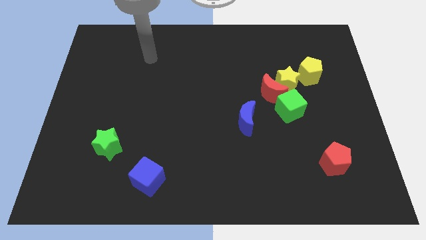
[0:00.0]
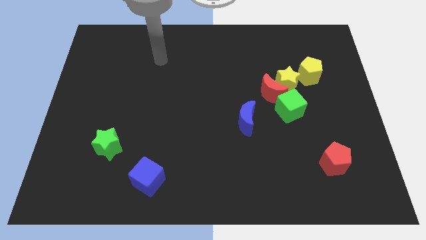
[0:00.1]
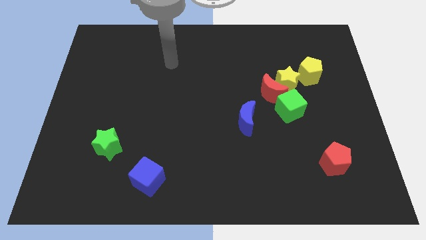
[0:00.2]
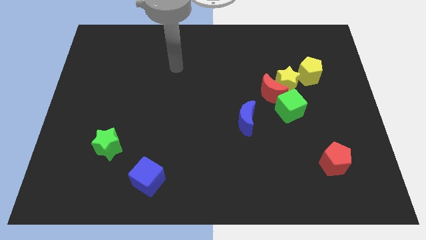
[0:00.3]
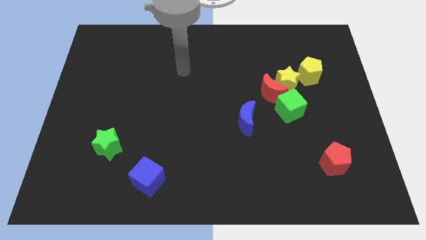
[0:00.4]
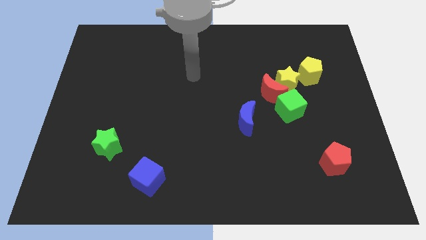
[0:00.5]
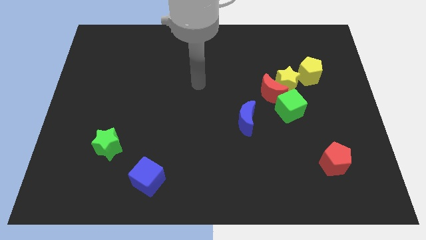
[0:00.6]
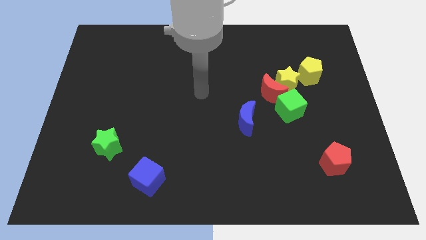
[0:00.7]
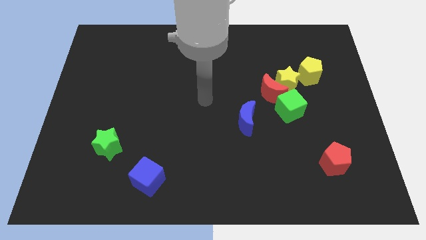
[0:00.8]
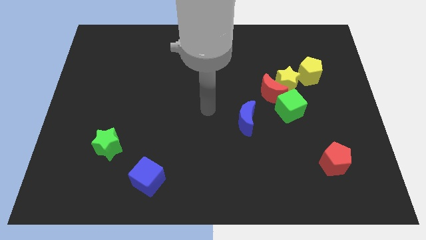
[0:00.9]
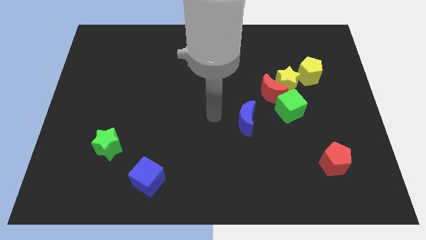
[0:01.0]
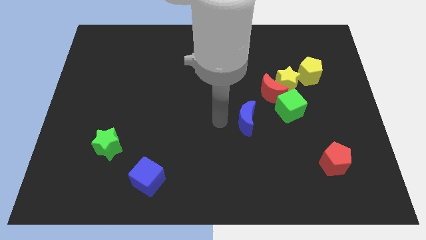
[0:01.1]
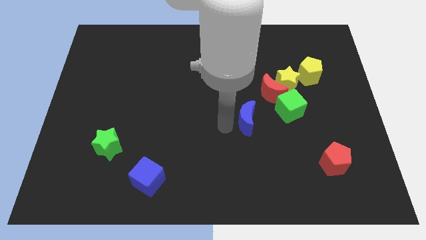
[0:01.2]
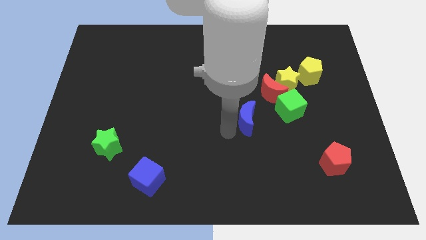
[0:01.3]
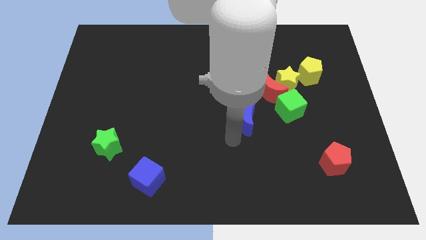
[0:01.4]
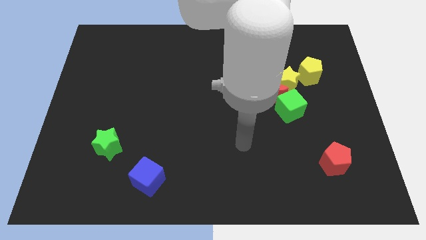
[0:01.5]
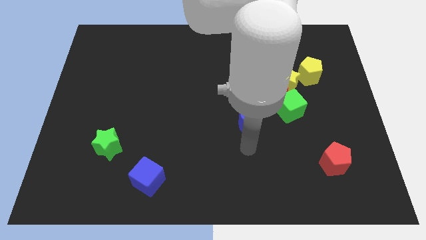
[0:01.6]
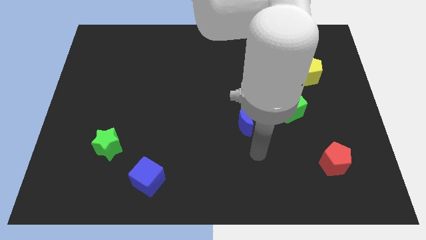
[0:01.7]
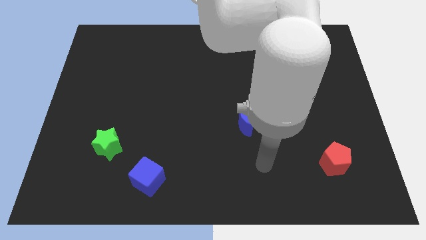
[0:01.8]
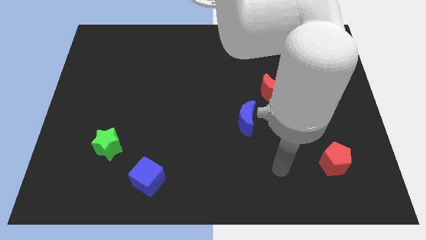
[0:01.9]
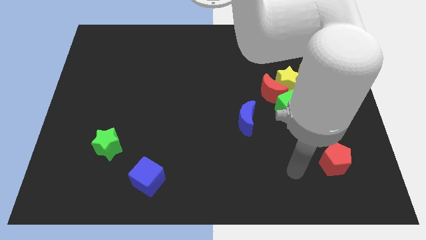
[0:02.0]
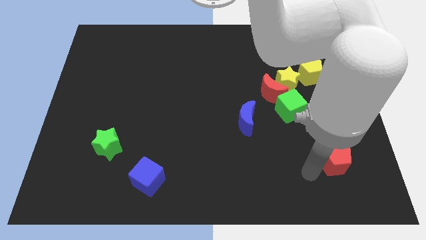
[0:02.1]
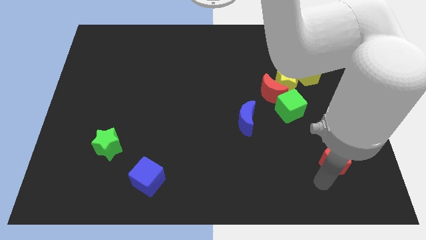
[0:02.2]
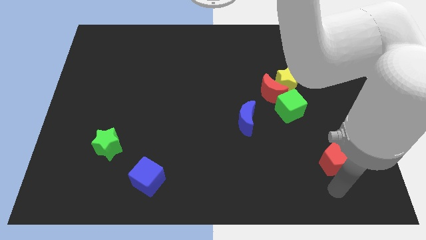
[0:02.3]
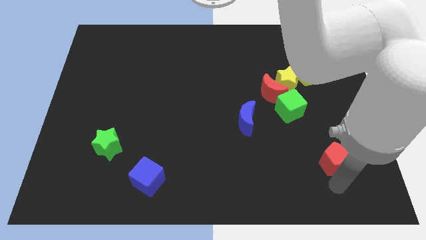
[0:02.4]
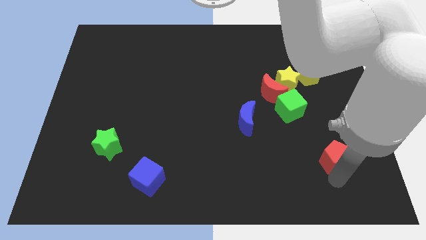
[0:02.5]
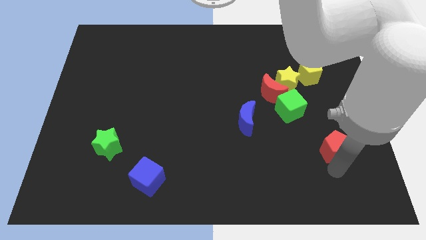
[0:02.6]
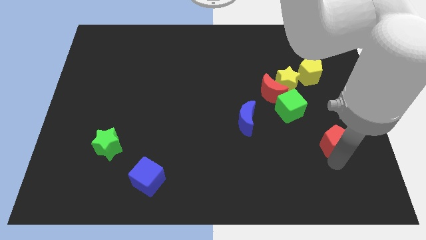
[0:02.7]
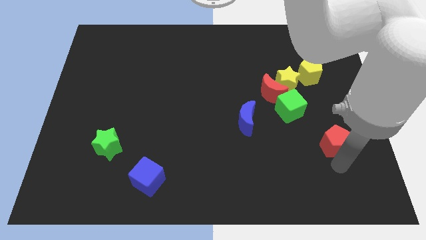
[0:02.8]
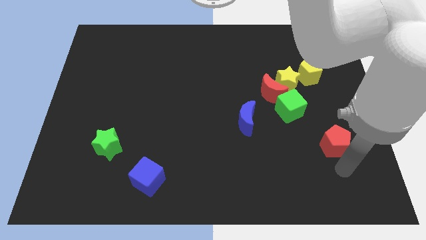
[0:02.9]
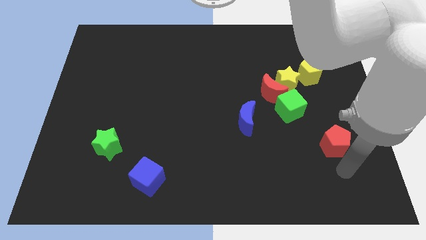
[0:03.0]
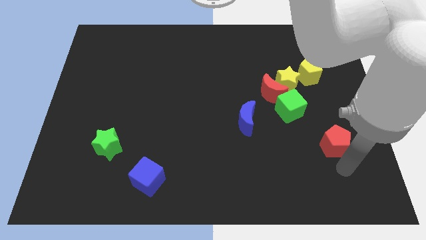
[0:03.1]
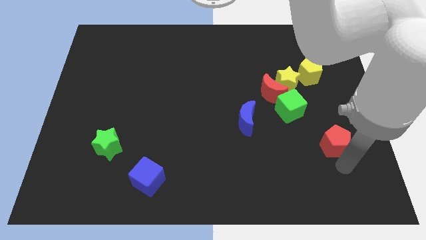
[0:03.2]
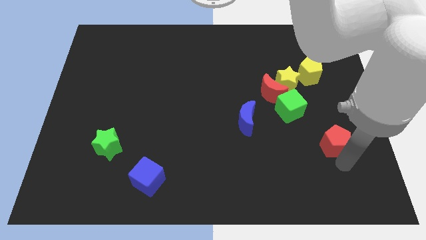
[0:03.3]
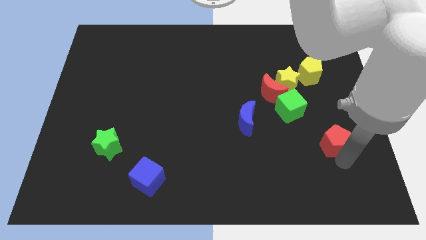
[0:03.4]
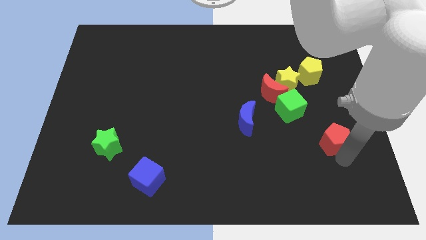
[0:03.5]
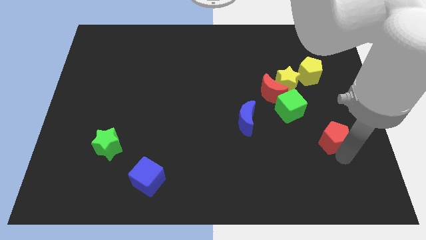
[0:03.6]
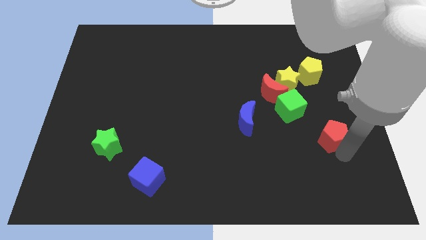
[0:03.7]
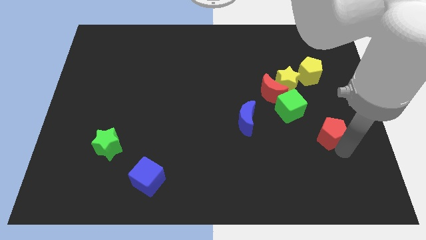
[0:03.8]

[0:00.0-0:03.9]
slide the red pentagon somewhat upwards

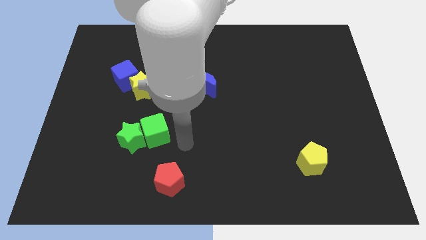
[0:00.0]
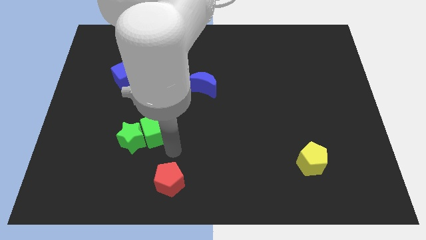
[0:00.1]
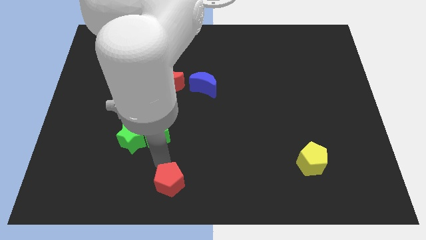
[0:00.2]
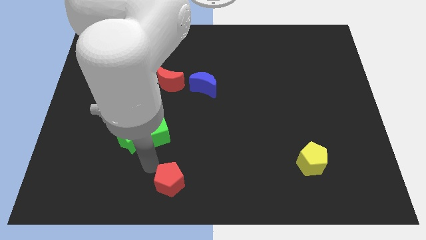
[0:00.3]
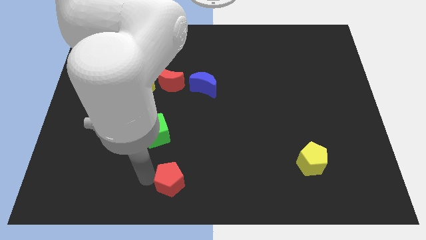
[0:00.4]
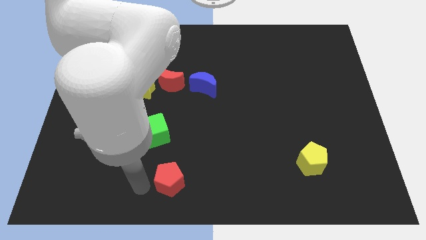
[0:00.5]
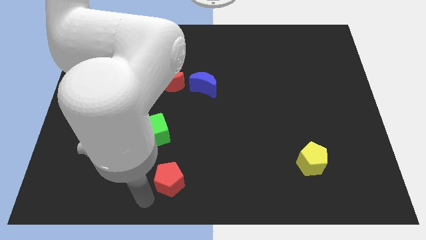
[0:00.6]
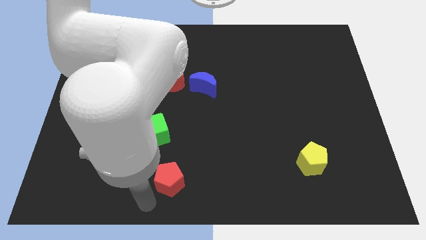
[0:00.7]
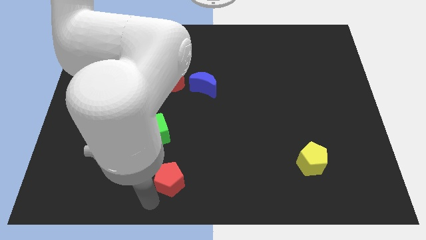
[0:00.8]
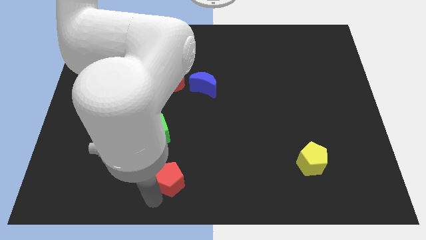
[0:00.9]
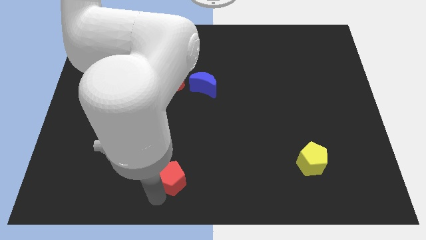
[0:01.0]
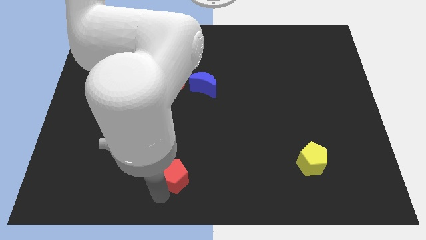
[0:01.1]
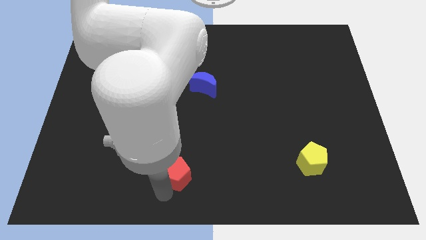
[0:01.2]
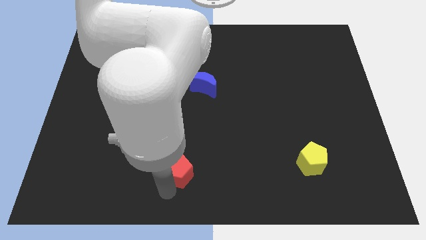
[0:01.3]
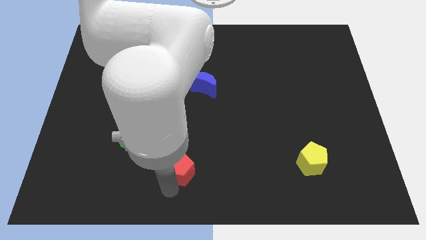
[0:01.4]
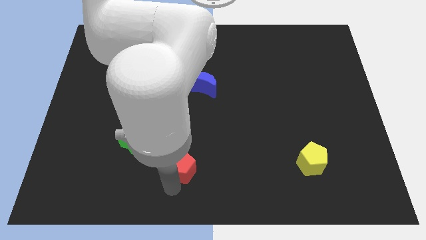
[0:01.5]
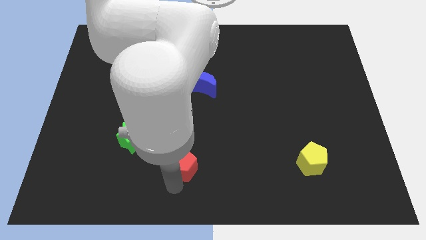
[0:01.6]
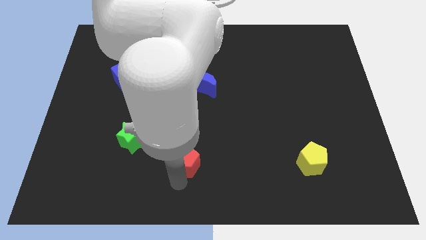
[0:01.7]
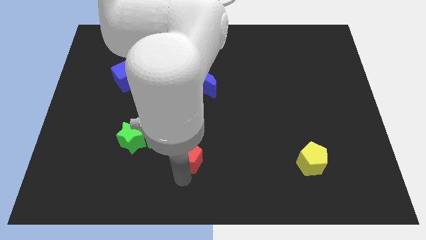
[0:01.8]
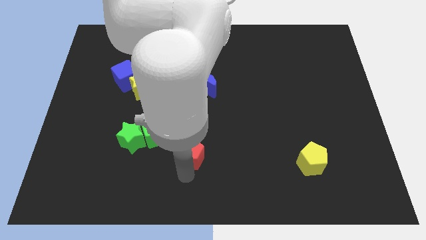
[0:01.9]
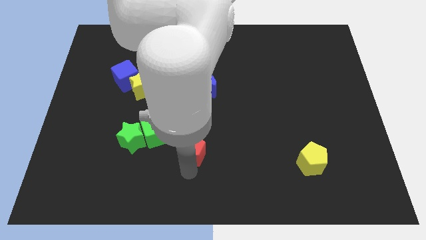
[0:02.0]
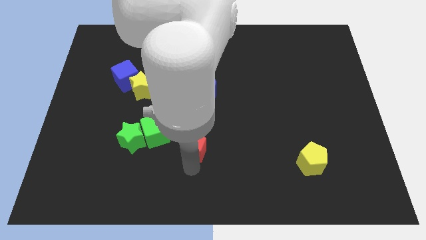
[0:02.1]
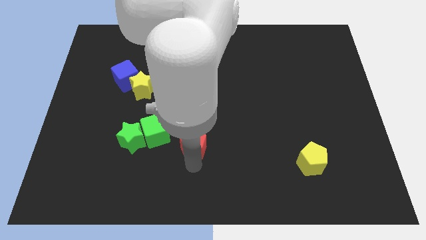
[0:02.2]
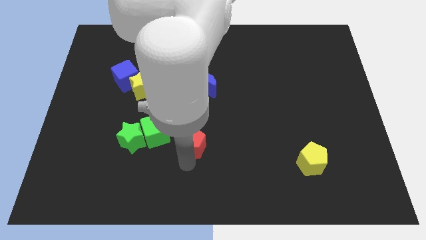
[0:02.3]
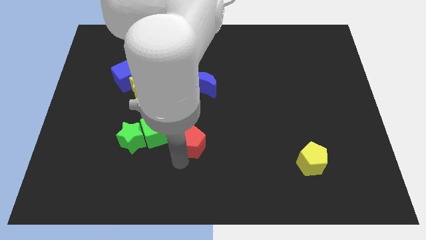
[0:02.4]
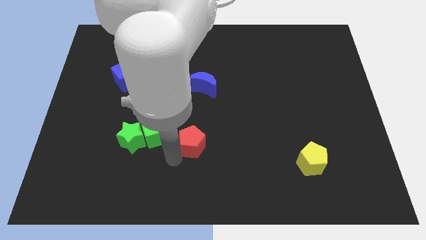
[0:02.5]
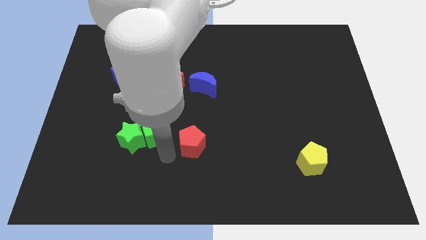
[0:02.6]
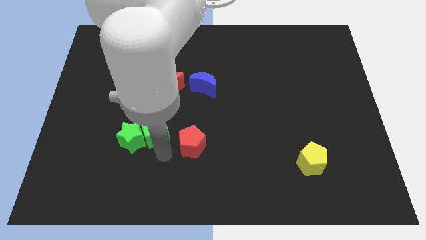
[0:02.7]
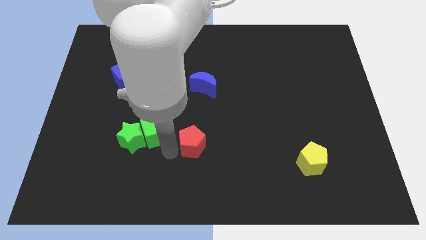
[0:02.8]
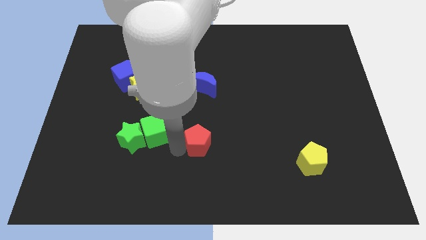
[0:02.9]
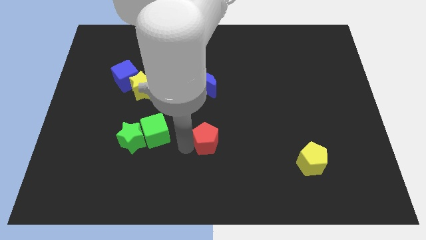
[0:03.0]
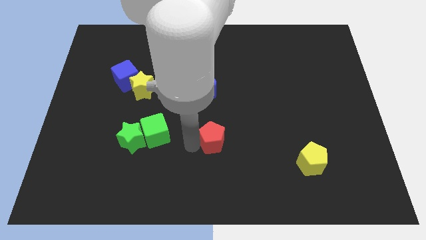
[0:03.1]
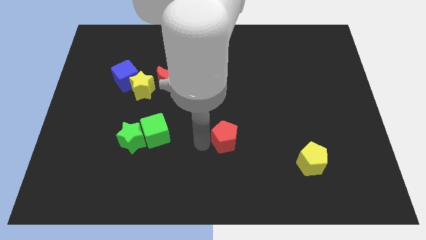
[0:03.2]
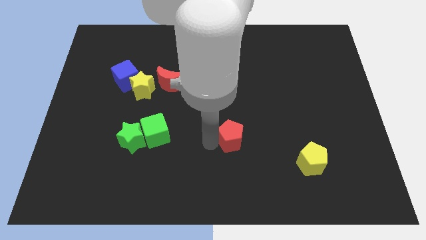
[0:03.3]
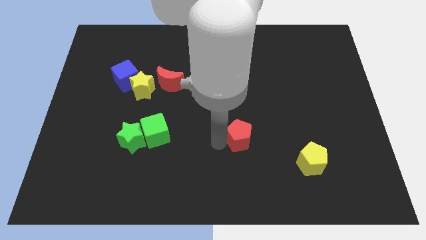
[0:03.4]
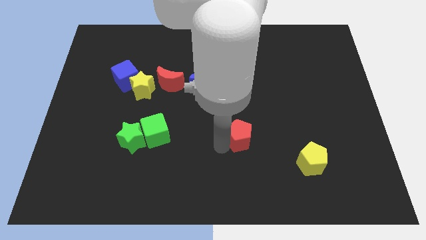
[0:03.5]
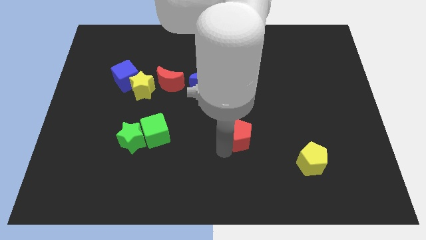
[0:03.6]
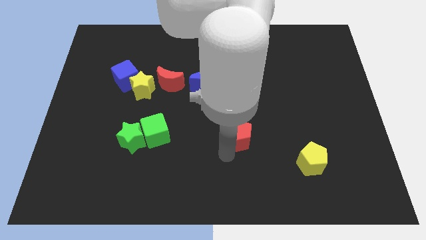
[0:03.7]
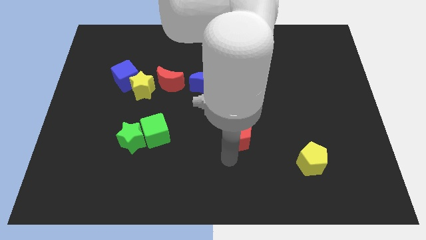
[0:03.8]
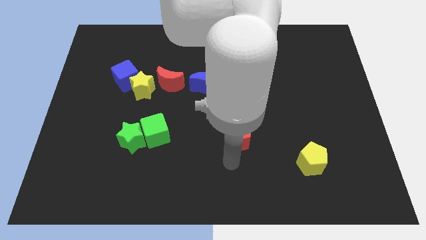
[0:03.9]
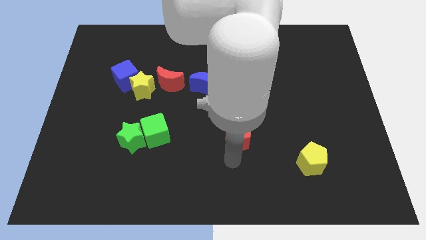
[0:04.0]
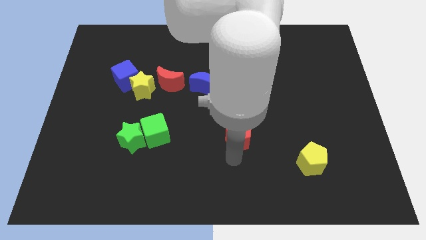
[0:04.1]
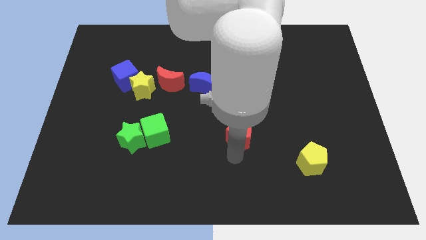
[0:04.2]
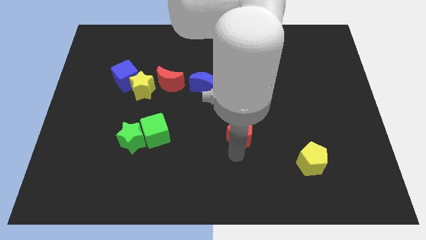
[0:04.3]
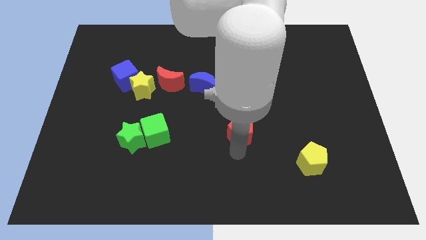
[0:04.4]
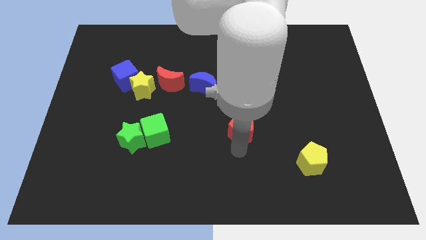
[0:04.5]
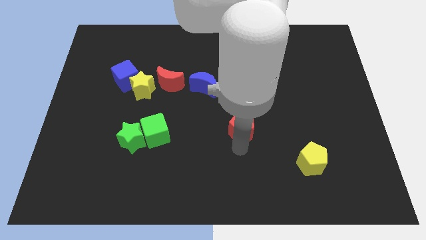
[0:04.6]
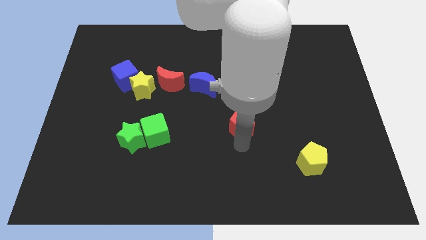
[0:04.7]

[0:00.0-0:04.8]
push the red pentagon upwards and right diagonally
